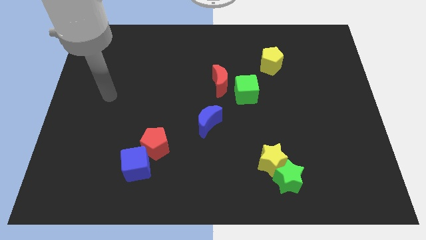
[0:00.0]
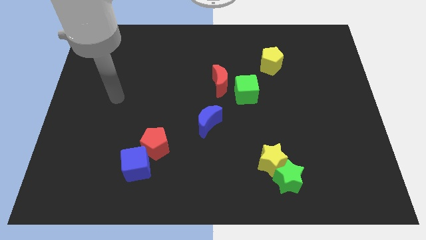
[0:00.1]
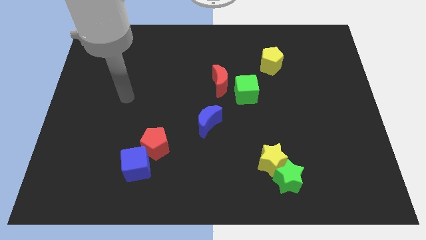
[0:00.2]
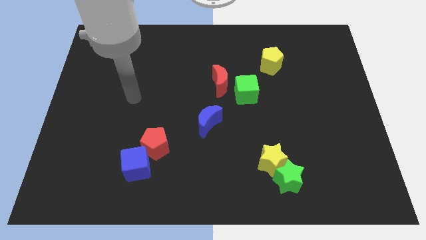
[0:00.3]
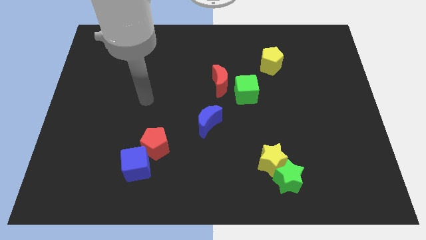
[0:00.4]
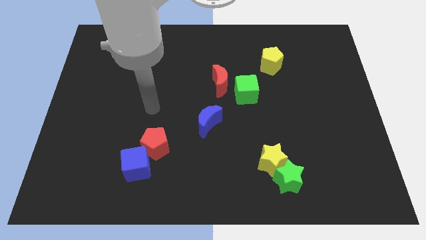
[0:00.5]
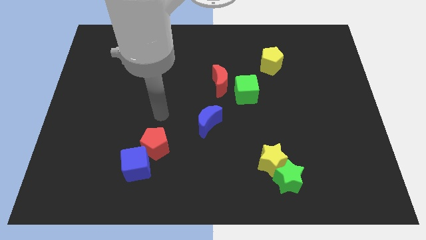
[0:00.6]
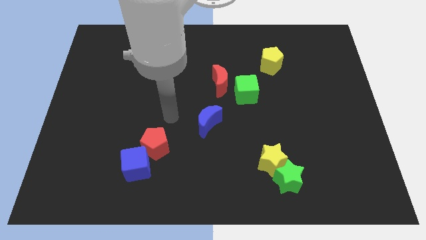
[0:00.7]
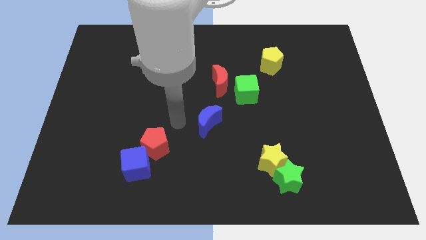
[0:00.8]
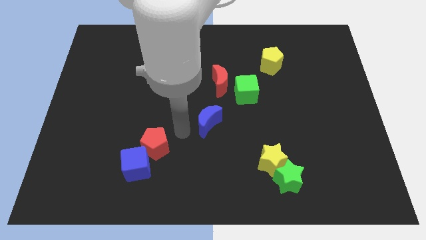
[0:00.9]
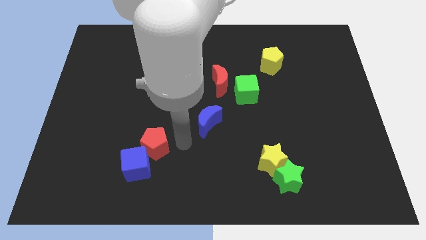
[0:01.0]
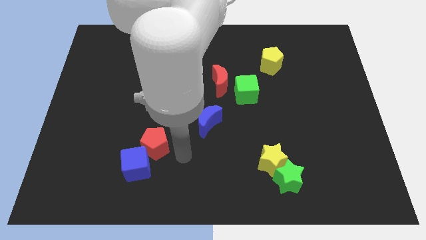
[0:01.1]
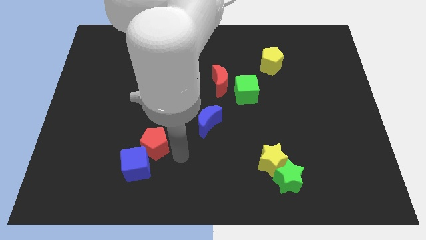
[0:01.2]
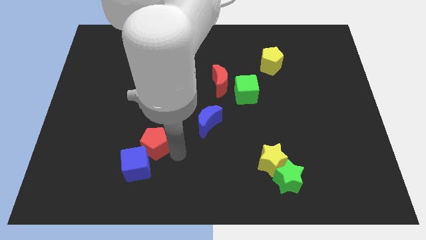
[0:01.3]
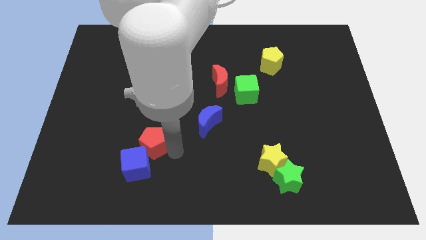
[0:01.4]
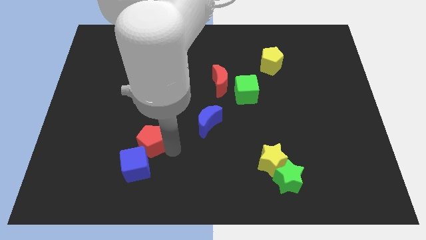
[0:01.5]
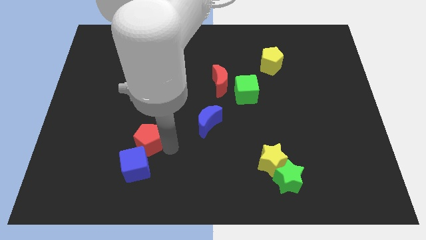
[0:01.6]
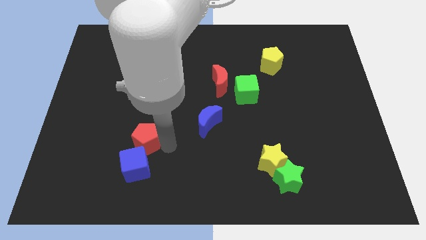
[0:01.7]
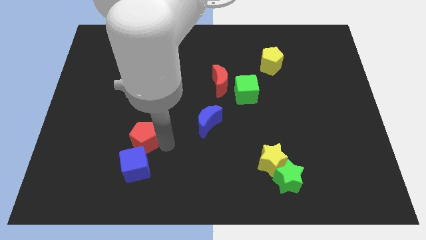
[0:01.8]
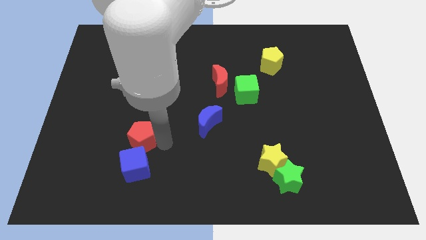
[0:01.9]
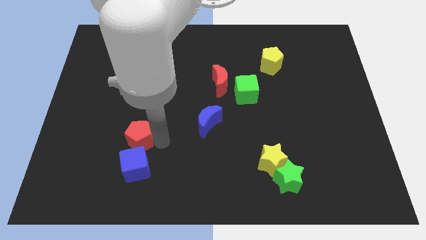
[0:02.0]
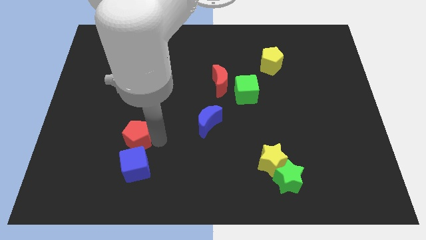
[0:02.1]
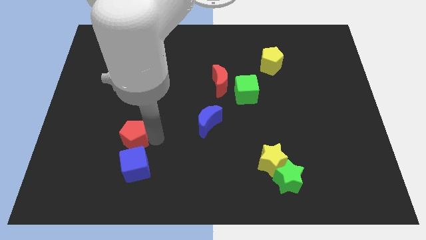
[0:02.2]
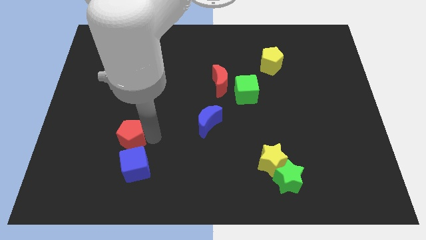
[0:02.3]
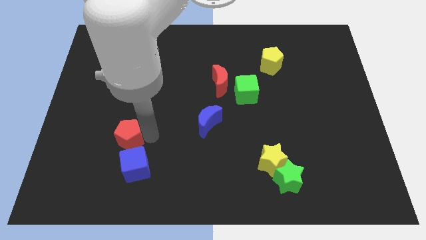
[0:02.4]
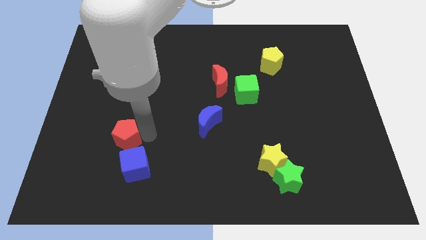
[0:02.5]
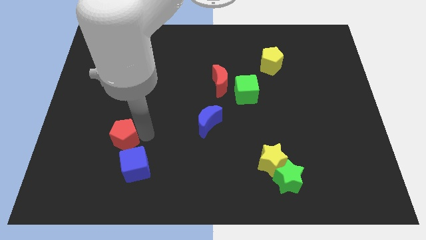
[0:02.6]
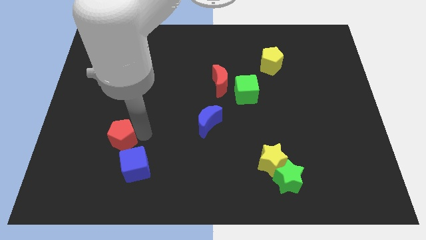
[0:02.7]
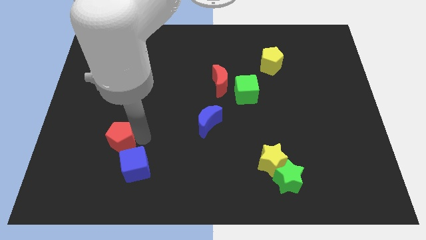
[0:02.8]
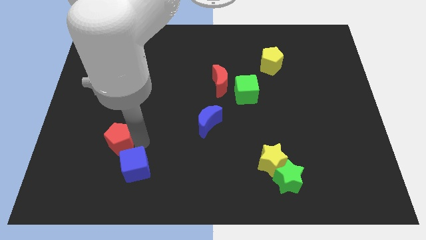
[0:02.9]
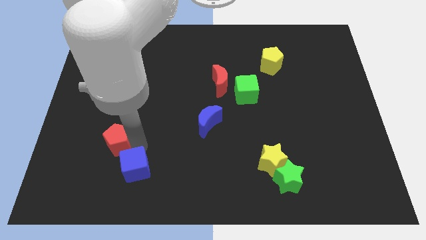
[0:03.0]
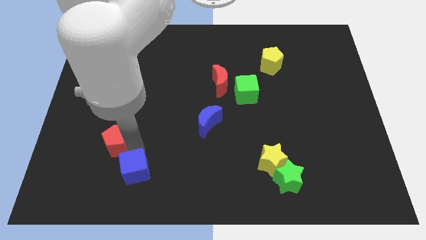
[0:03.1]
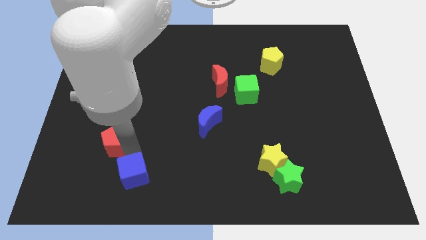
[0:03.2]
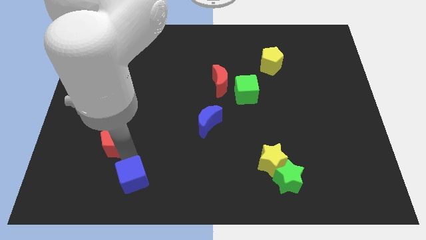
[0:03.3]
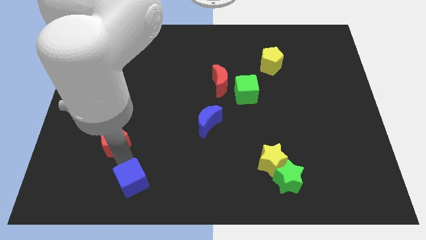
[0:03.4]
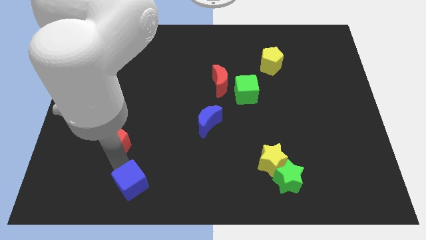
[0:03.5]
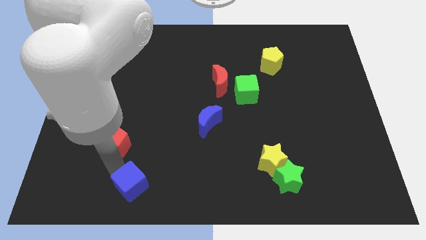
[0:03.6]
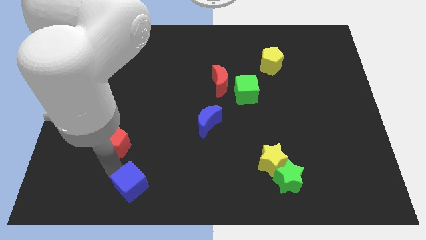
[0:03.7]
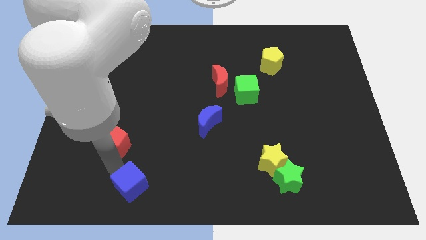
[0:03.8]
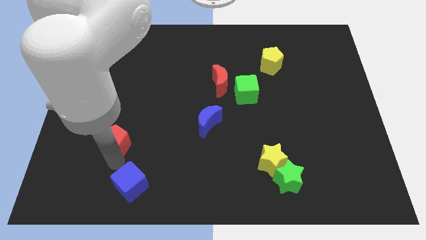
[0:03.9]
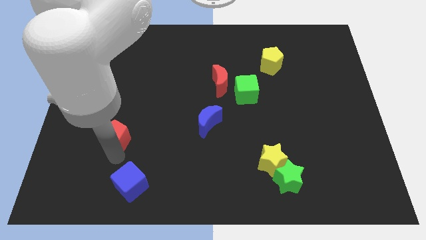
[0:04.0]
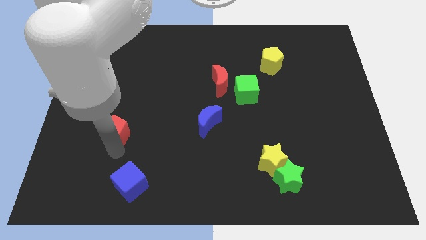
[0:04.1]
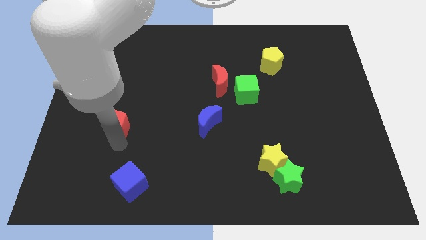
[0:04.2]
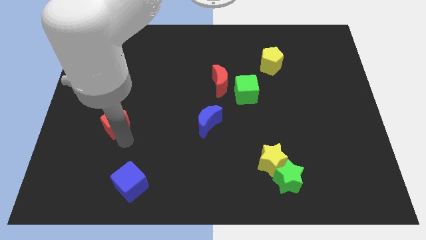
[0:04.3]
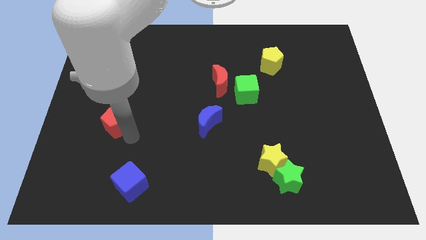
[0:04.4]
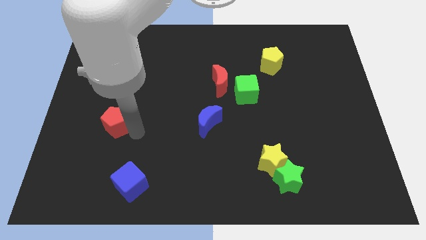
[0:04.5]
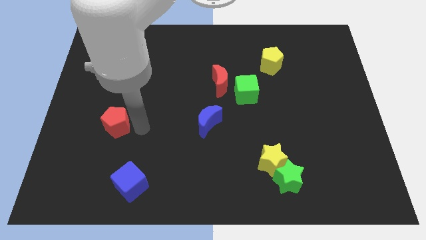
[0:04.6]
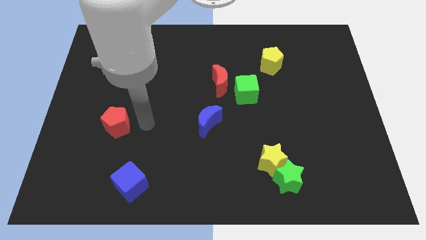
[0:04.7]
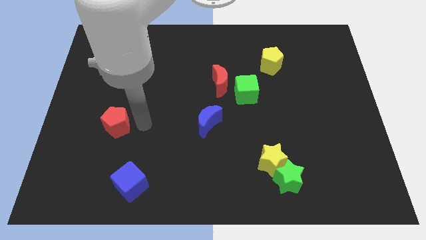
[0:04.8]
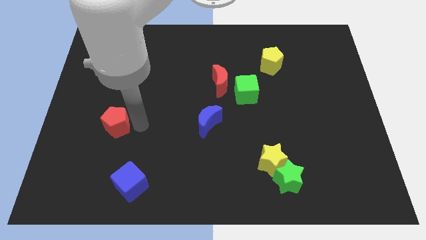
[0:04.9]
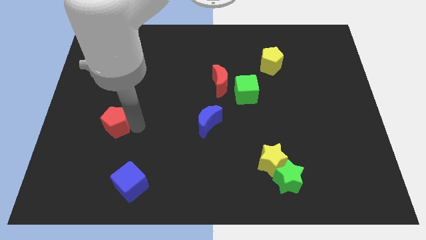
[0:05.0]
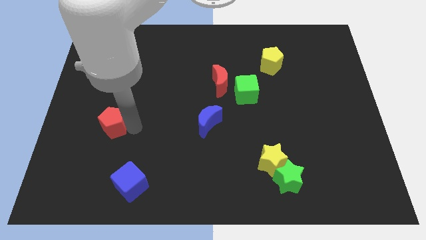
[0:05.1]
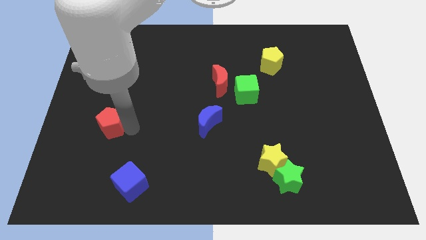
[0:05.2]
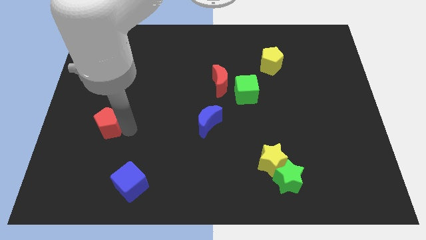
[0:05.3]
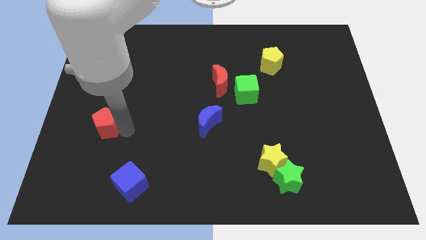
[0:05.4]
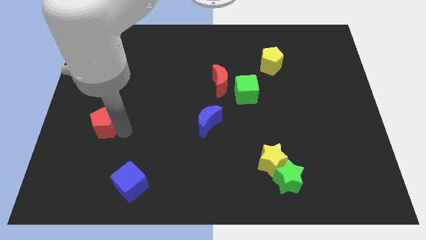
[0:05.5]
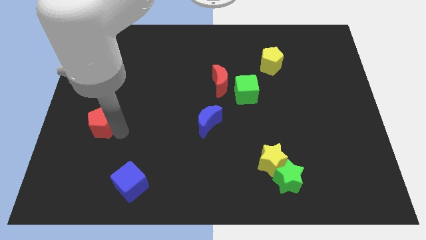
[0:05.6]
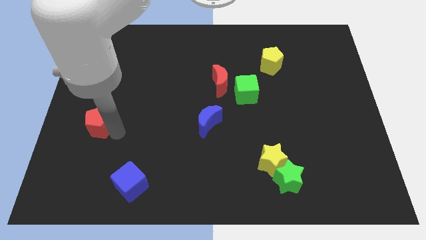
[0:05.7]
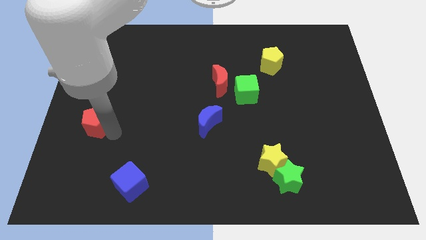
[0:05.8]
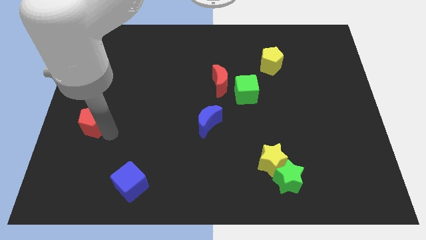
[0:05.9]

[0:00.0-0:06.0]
slide the red pentagon to the left side of the board

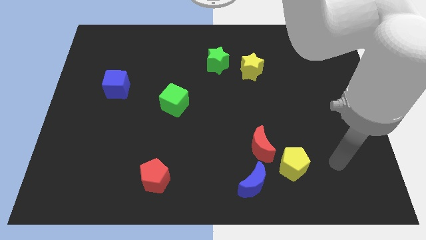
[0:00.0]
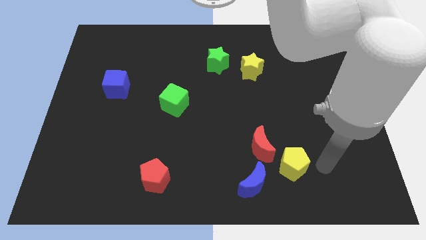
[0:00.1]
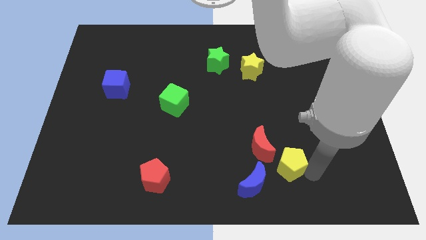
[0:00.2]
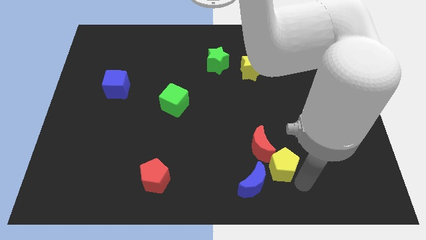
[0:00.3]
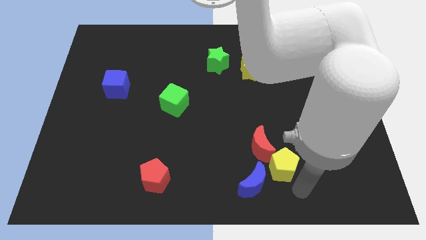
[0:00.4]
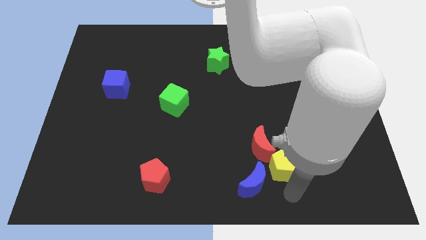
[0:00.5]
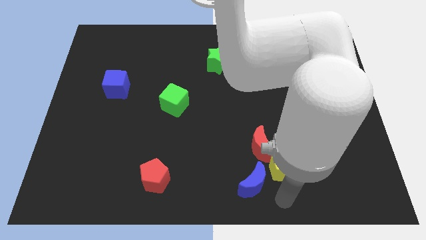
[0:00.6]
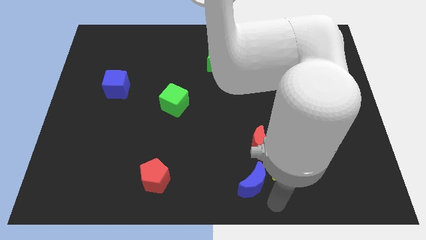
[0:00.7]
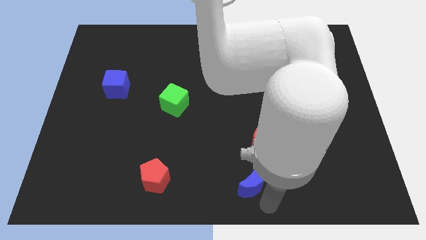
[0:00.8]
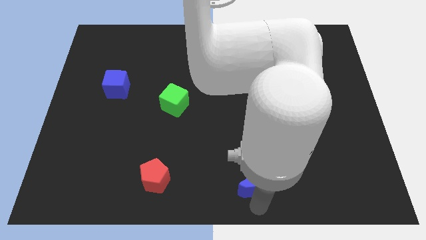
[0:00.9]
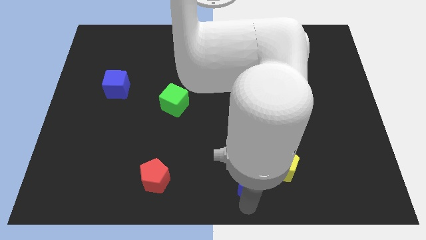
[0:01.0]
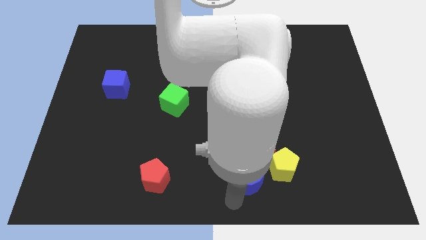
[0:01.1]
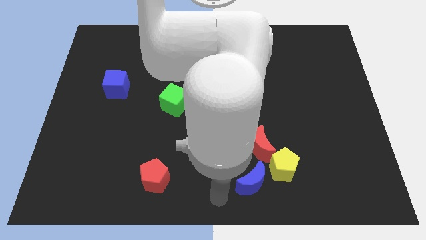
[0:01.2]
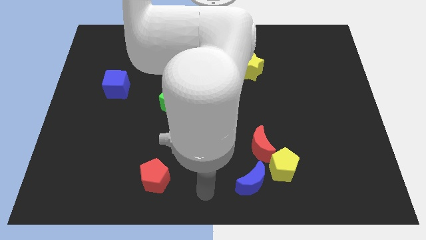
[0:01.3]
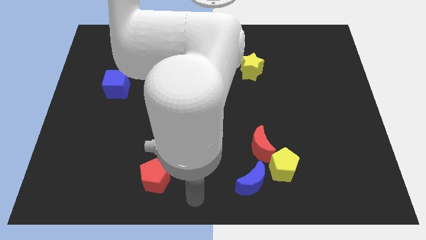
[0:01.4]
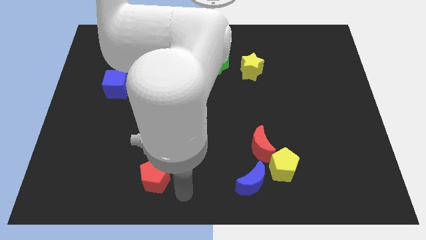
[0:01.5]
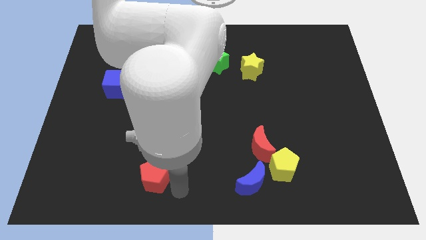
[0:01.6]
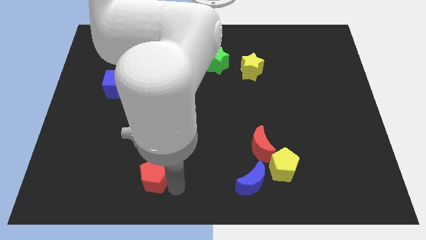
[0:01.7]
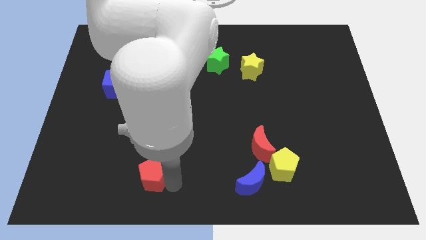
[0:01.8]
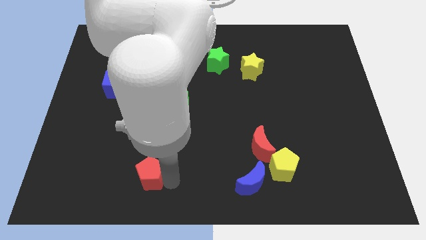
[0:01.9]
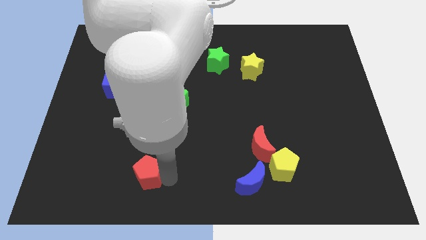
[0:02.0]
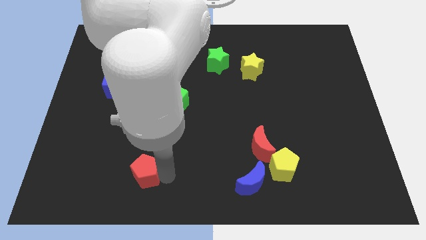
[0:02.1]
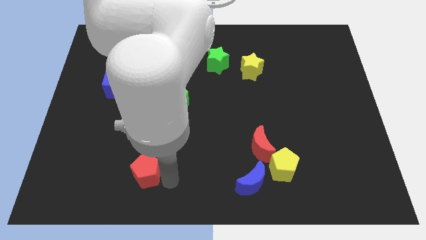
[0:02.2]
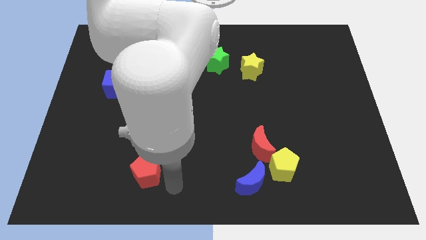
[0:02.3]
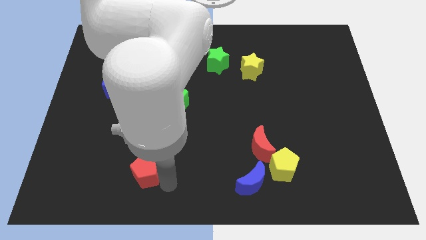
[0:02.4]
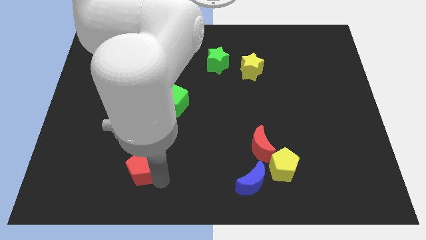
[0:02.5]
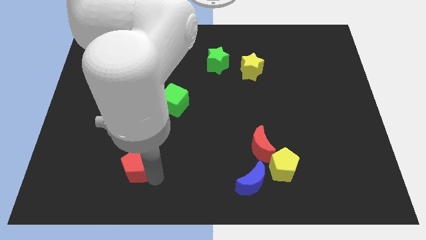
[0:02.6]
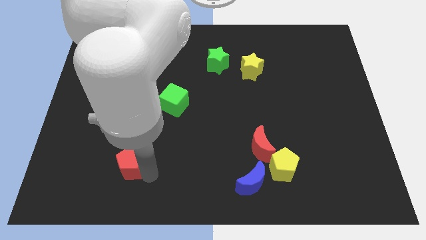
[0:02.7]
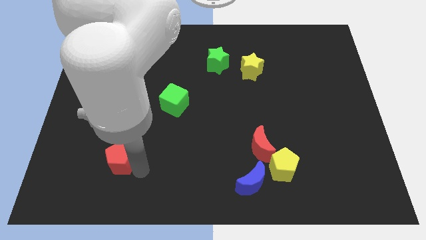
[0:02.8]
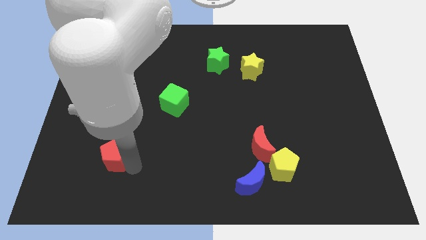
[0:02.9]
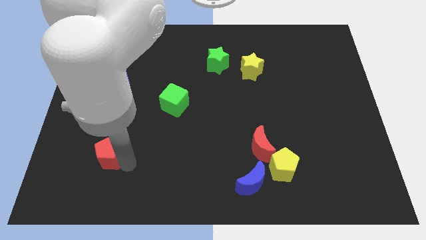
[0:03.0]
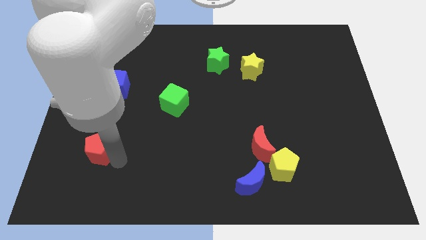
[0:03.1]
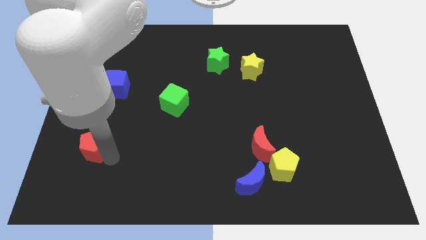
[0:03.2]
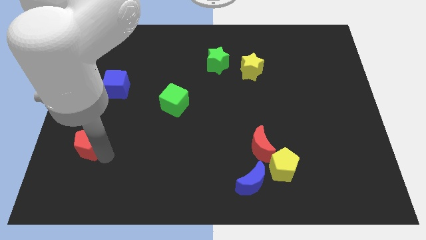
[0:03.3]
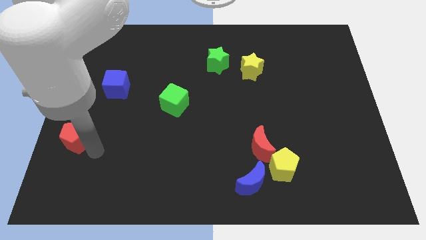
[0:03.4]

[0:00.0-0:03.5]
move the red pentagon to the center left
